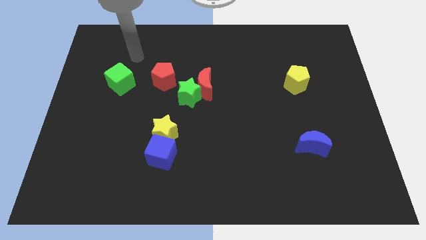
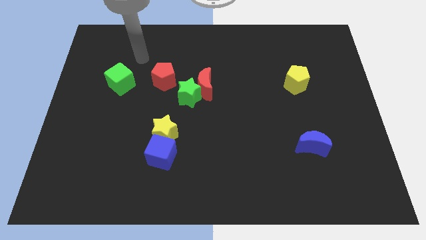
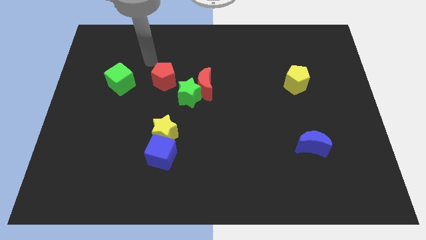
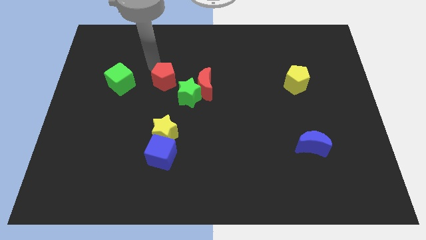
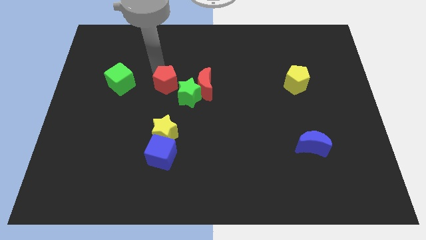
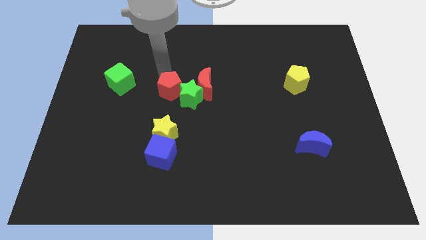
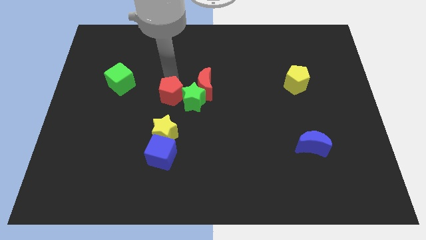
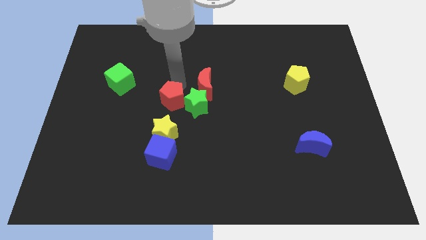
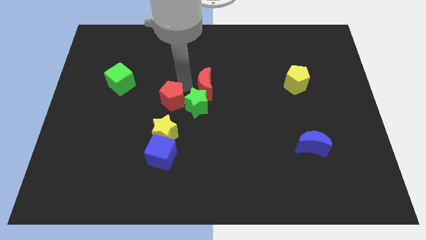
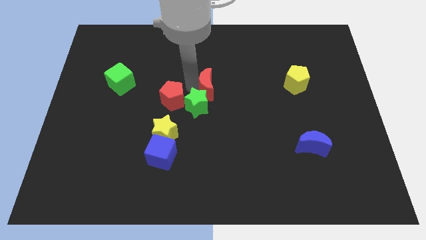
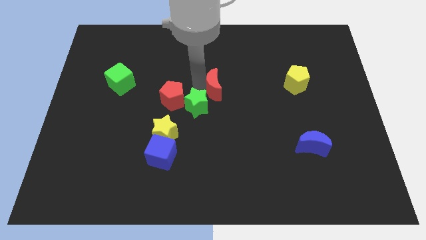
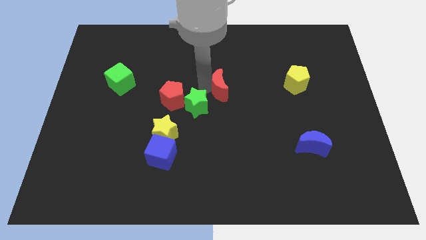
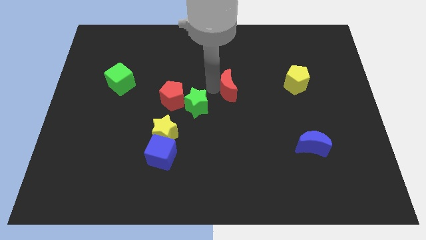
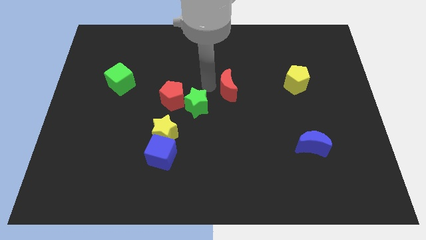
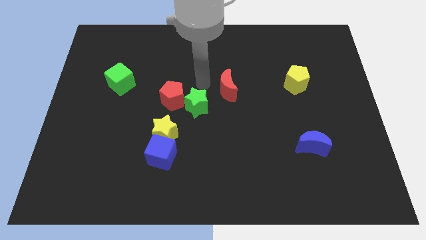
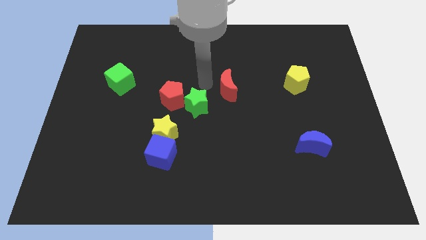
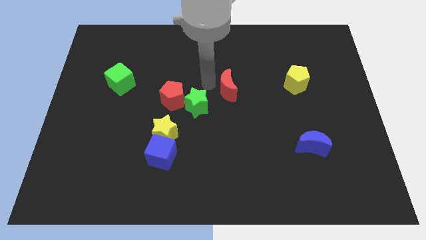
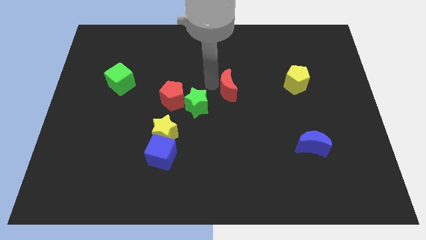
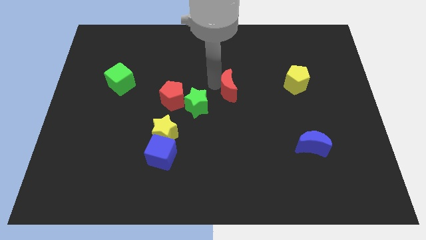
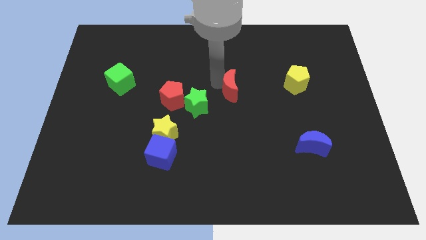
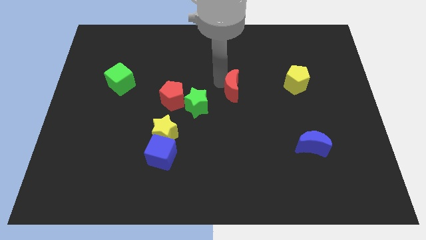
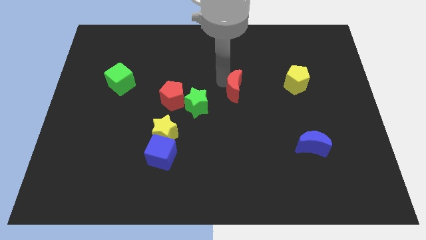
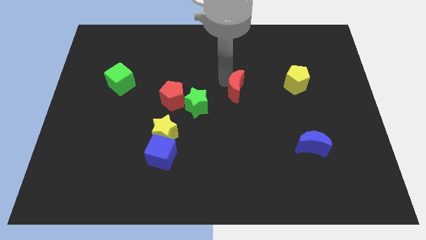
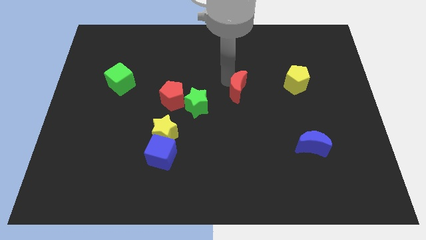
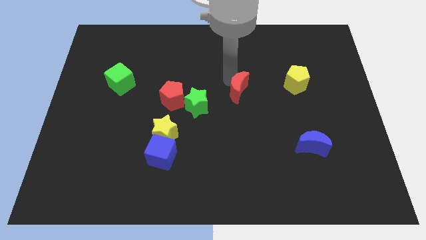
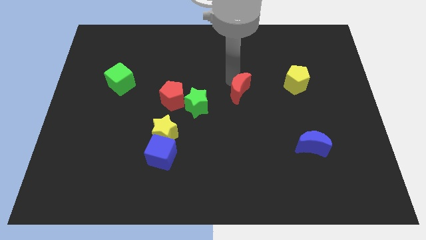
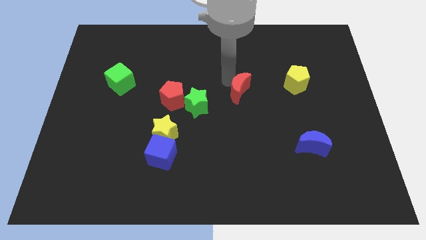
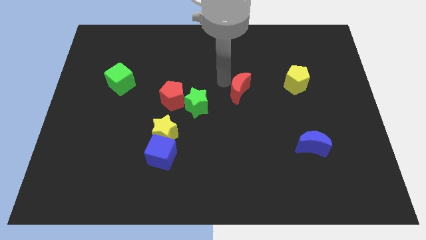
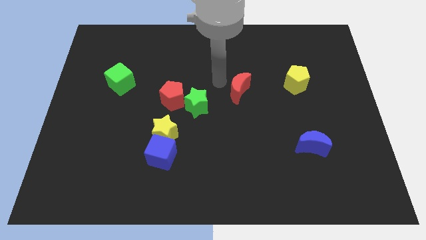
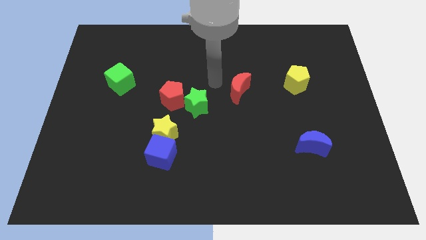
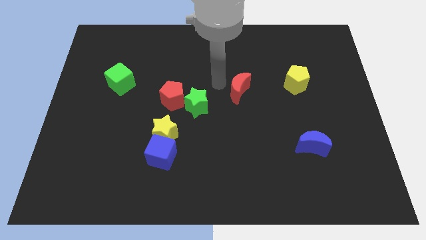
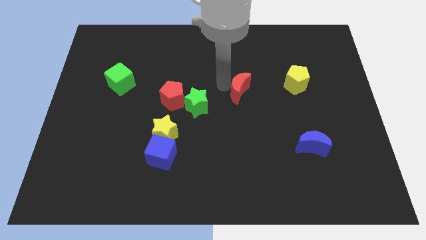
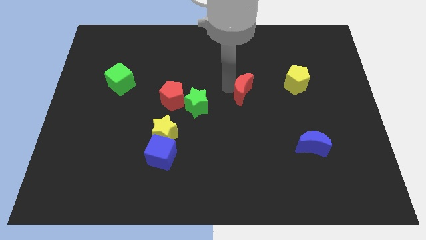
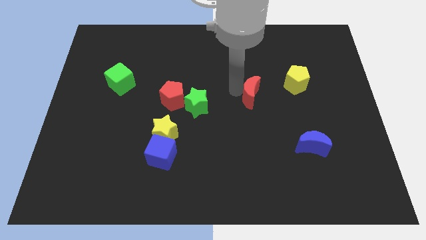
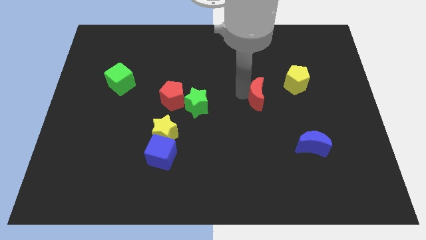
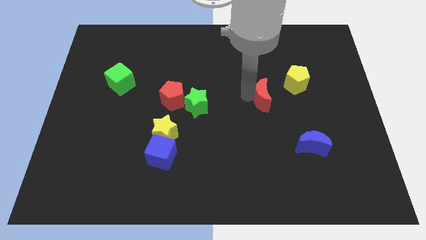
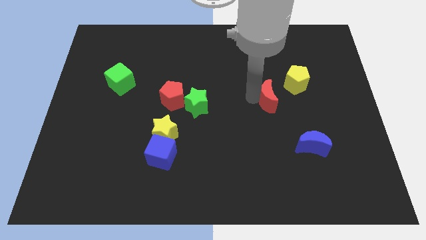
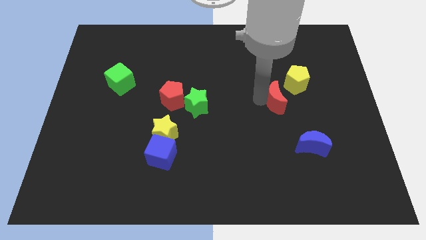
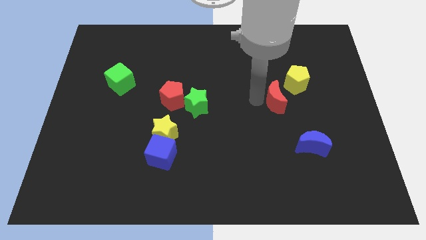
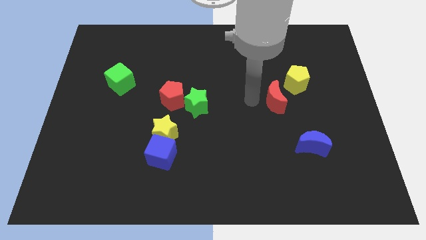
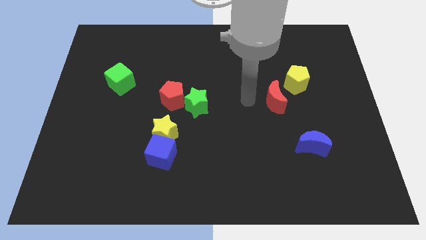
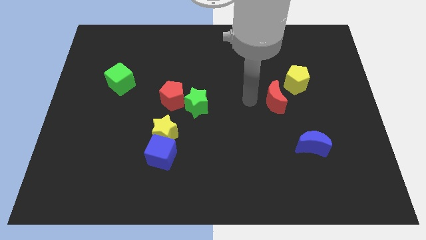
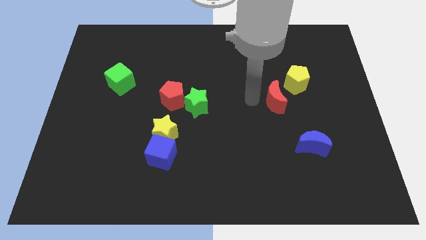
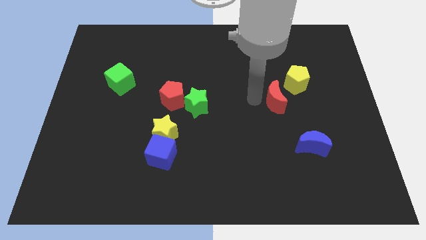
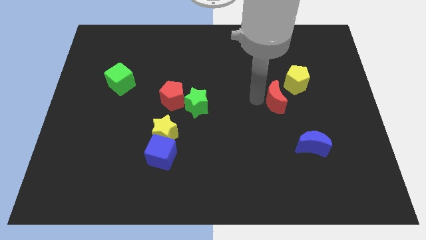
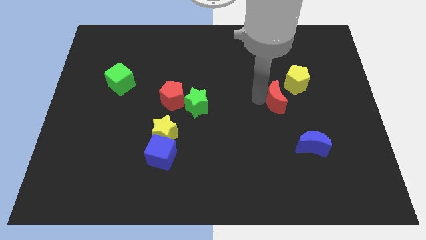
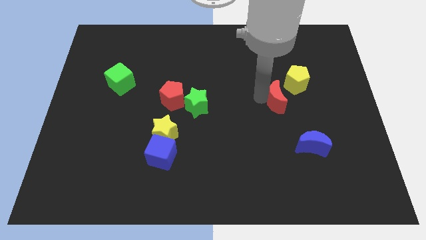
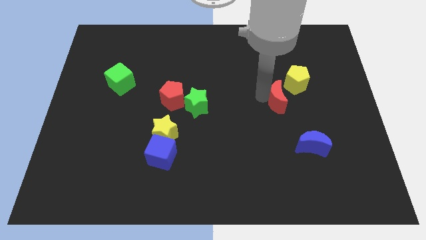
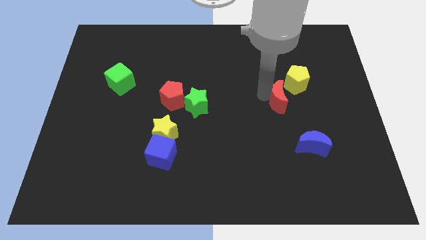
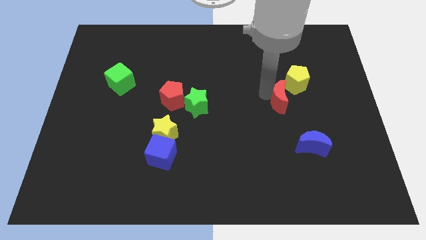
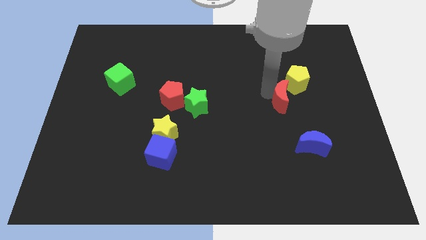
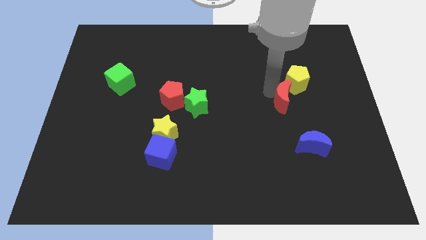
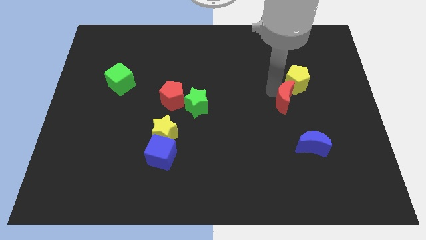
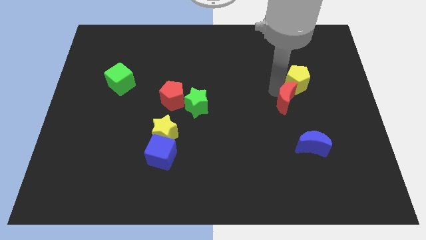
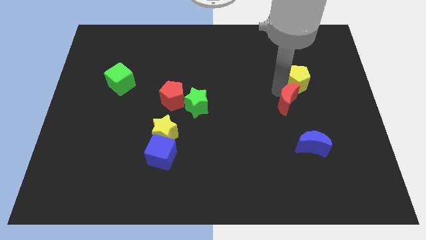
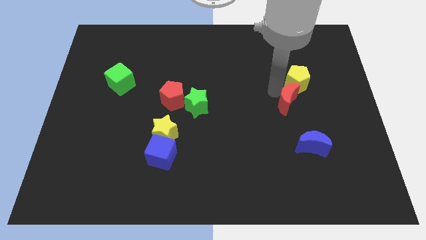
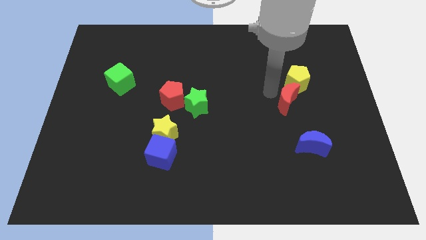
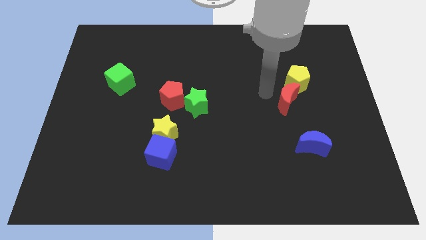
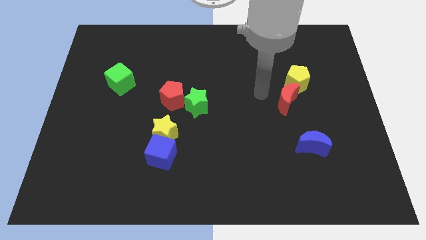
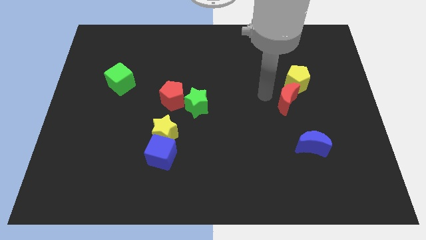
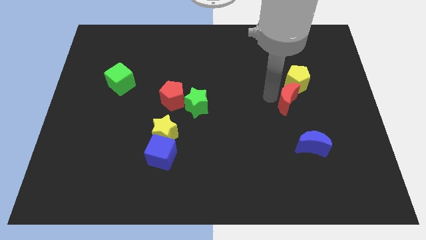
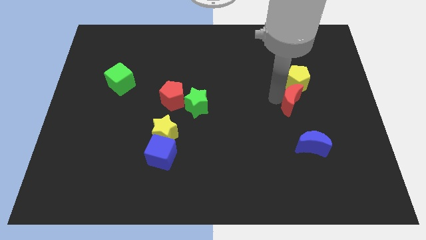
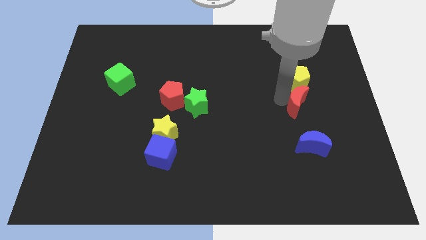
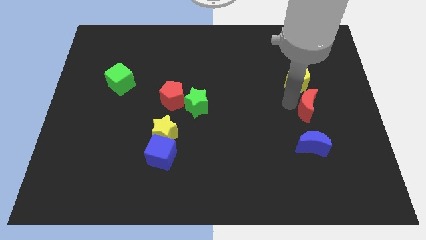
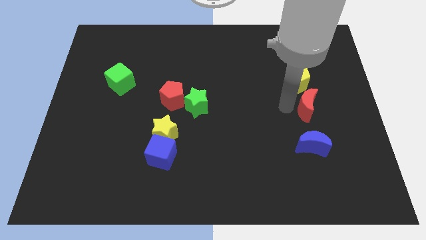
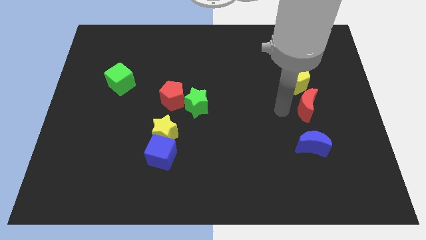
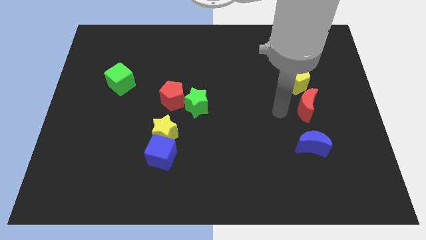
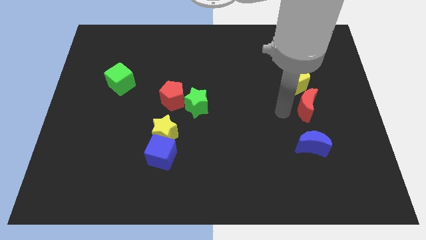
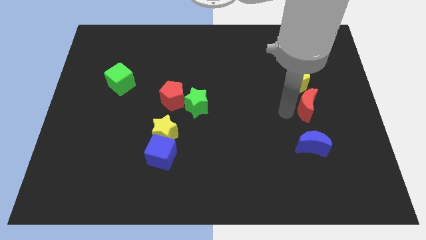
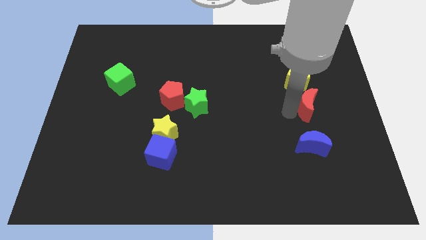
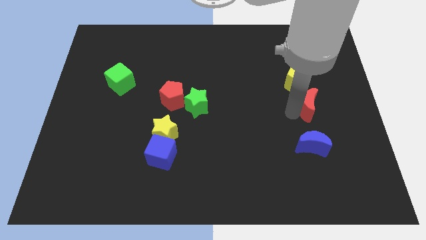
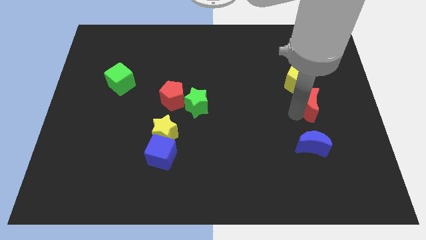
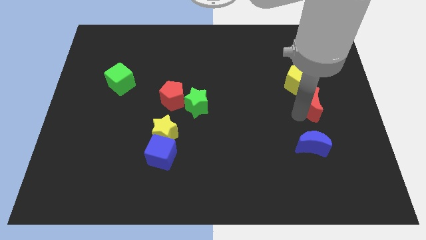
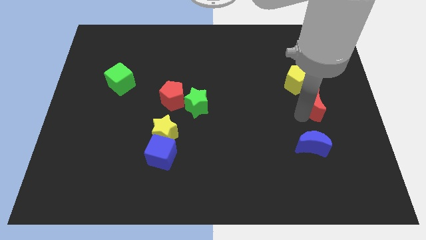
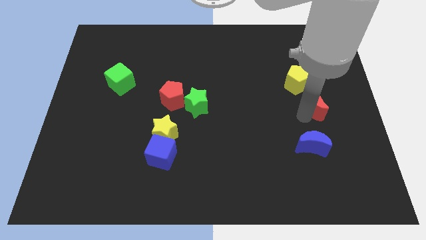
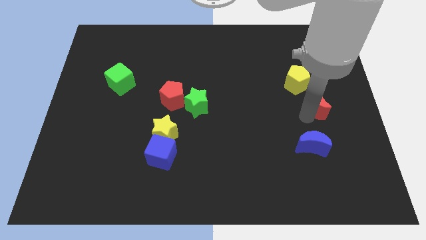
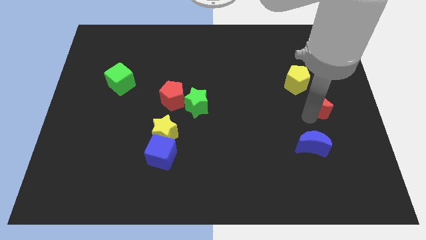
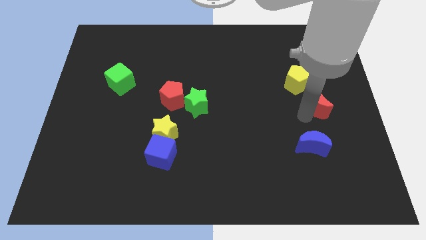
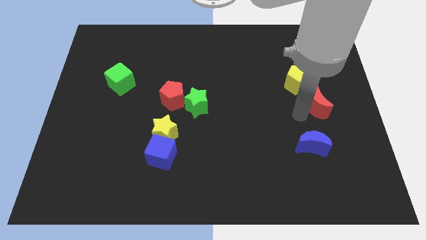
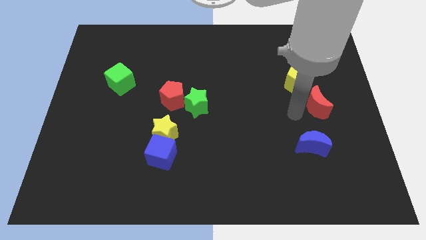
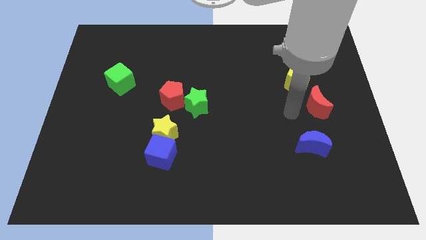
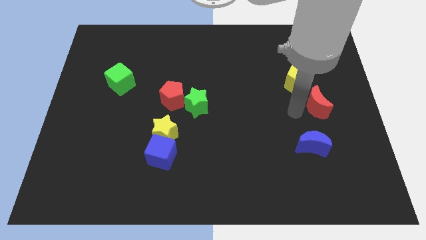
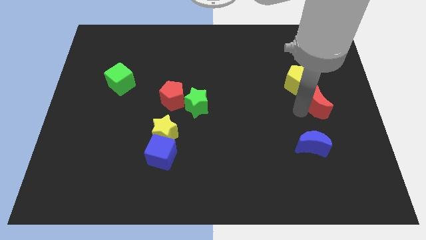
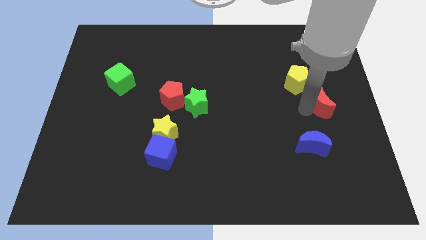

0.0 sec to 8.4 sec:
put the red moon to the right side of the board
